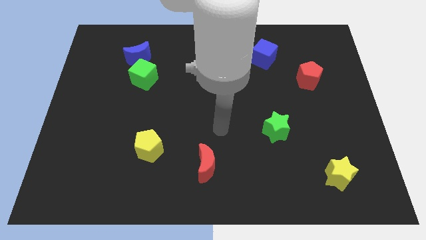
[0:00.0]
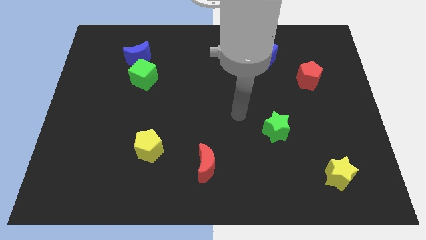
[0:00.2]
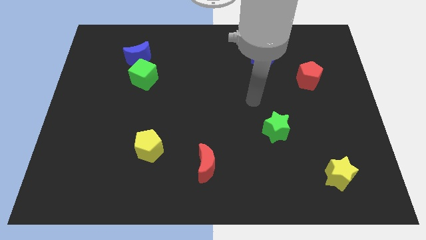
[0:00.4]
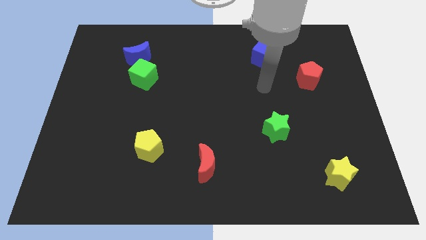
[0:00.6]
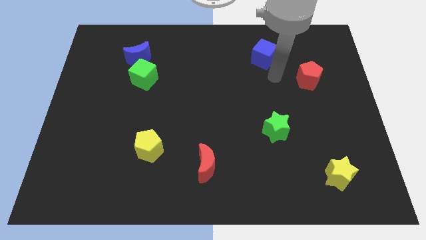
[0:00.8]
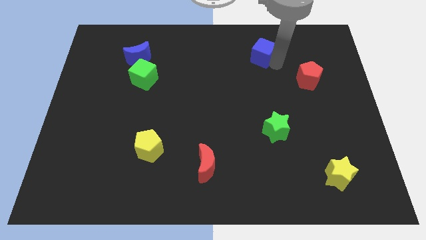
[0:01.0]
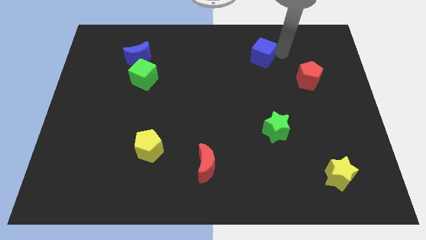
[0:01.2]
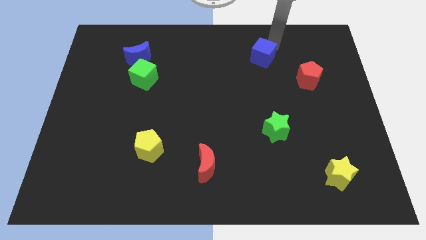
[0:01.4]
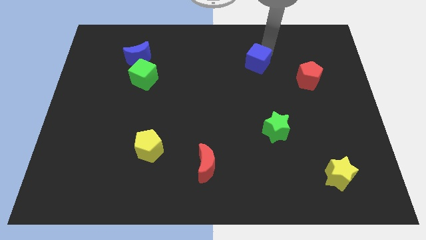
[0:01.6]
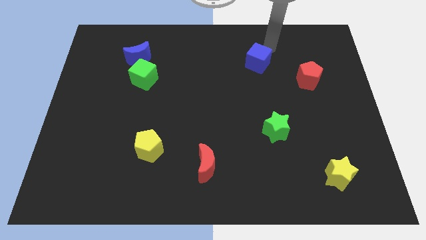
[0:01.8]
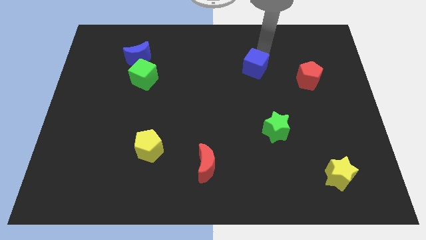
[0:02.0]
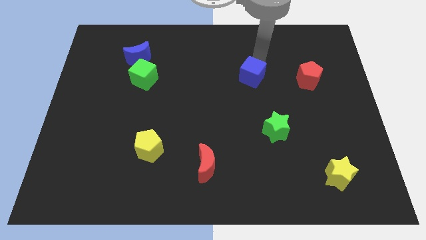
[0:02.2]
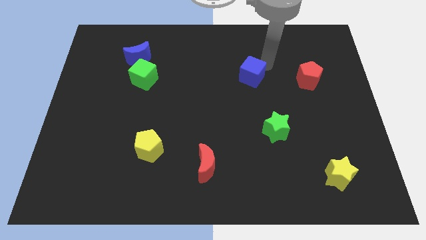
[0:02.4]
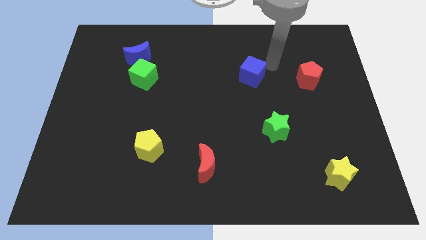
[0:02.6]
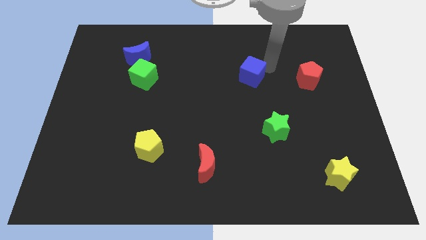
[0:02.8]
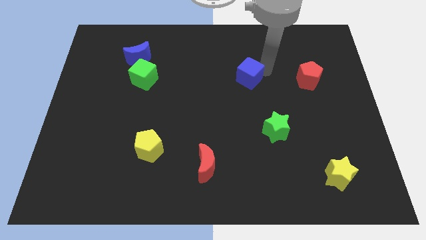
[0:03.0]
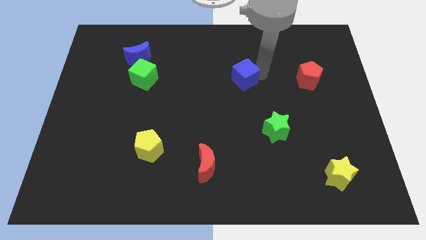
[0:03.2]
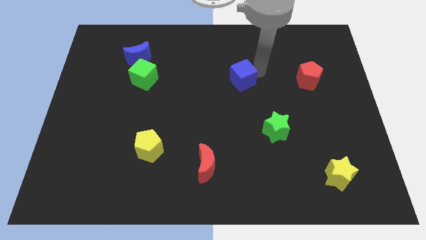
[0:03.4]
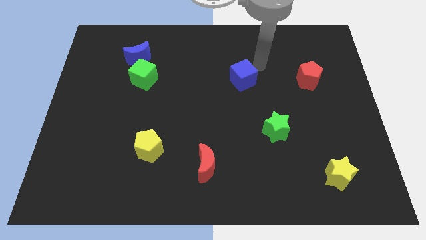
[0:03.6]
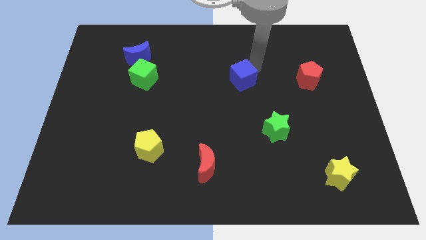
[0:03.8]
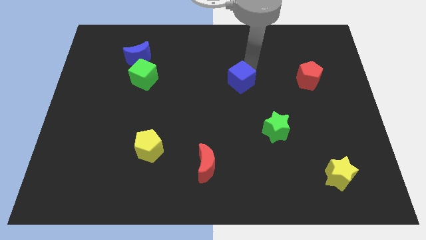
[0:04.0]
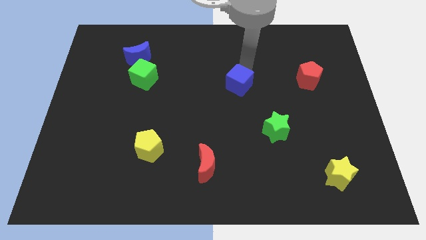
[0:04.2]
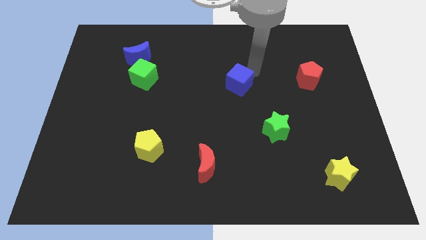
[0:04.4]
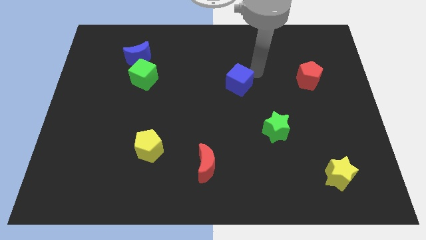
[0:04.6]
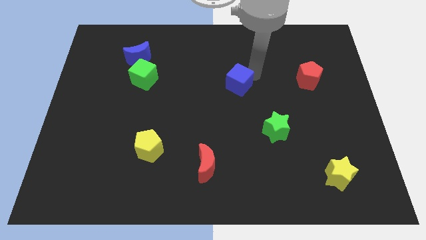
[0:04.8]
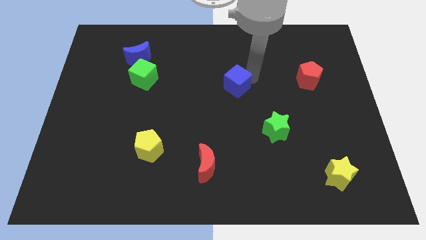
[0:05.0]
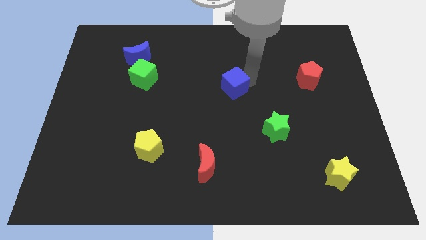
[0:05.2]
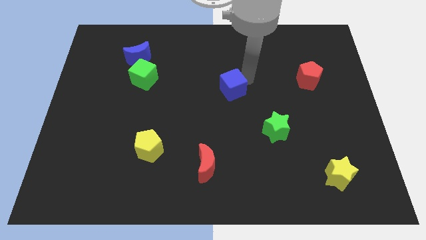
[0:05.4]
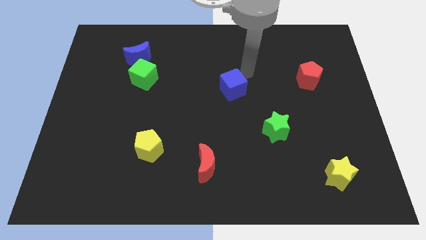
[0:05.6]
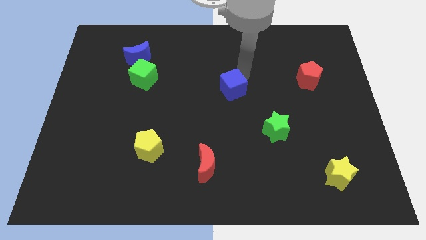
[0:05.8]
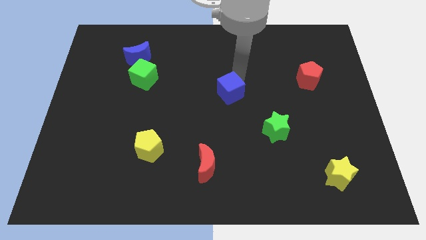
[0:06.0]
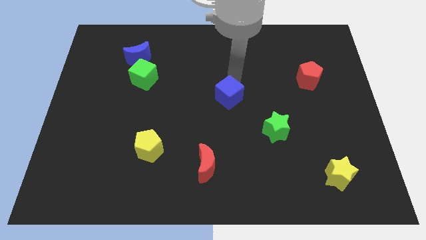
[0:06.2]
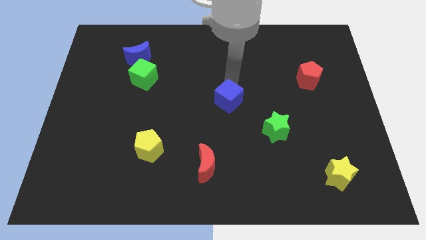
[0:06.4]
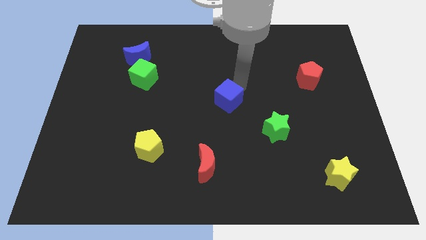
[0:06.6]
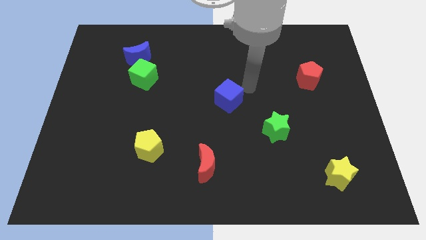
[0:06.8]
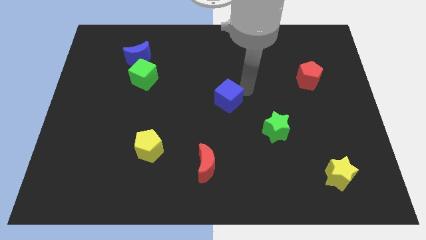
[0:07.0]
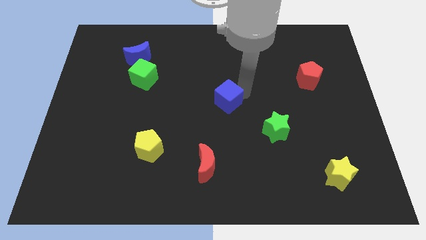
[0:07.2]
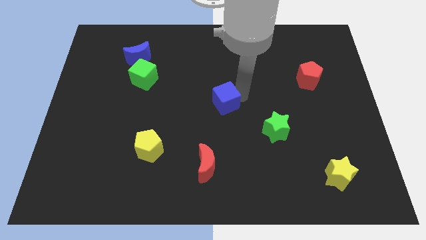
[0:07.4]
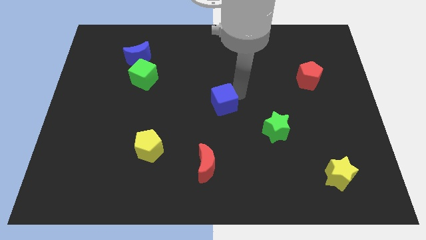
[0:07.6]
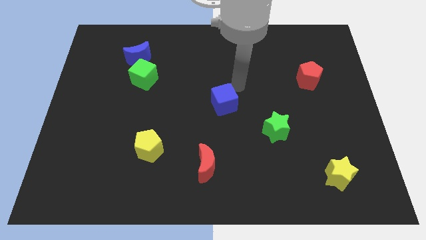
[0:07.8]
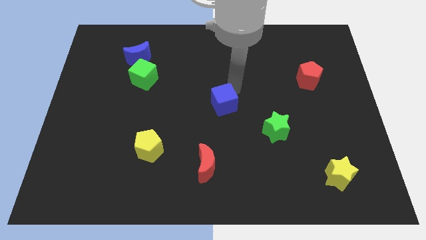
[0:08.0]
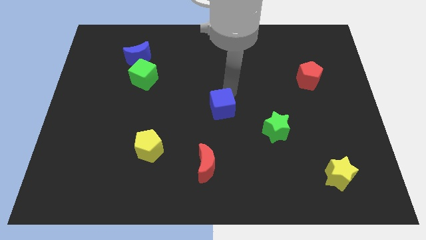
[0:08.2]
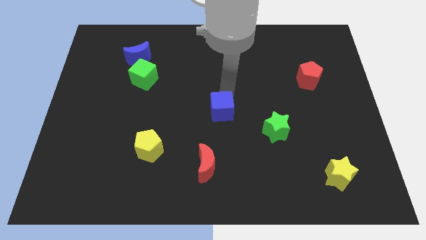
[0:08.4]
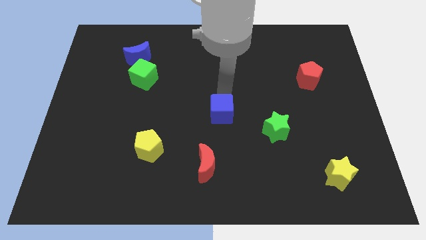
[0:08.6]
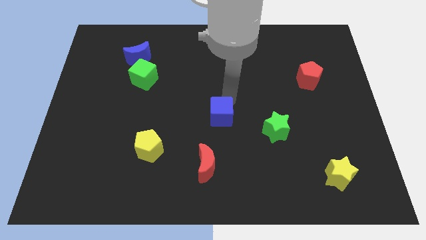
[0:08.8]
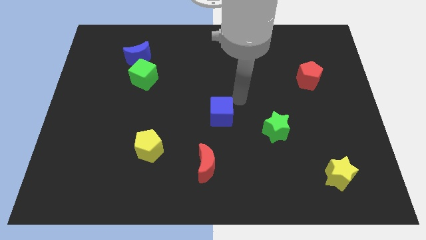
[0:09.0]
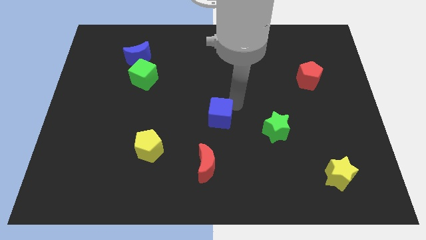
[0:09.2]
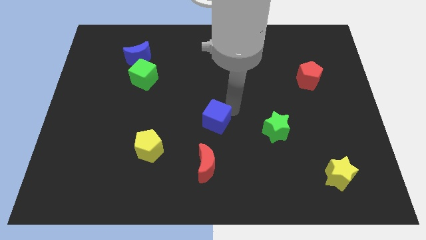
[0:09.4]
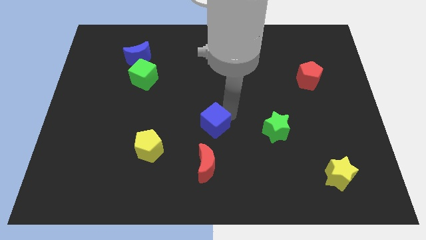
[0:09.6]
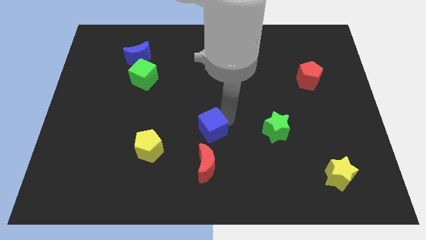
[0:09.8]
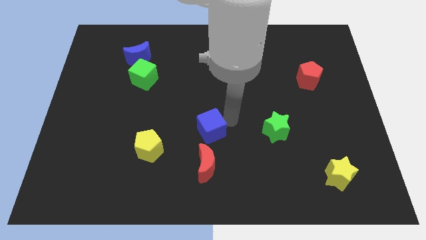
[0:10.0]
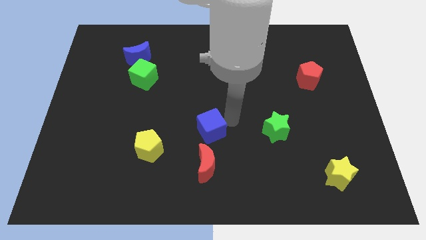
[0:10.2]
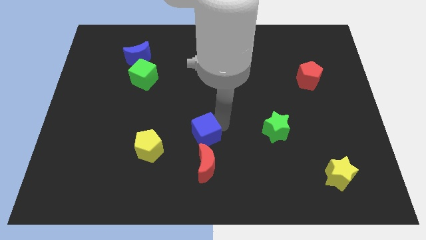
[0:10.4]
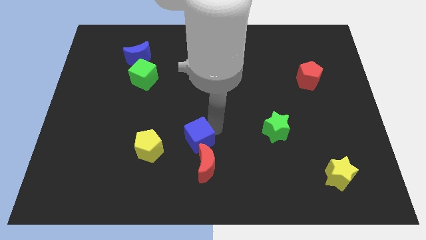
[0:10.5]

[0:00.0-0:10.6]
push the blue cube diagonally up and to the left of the red moon

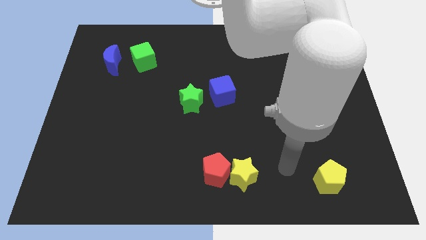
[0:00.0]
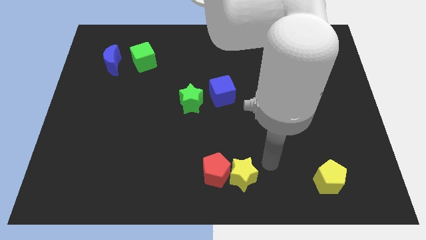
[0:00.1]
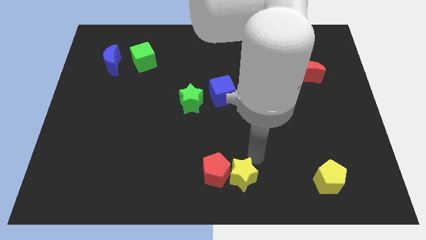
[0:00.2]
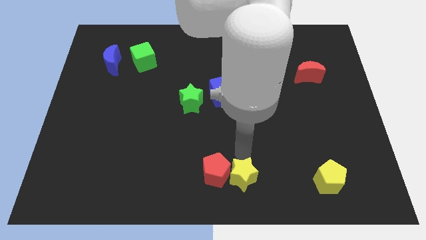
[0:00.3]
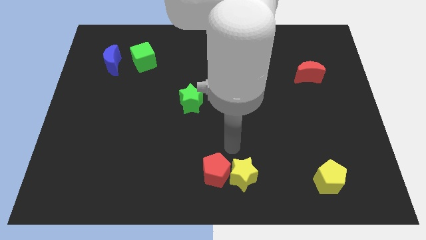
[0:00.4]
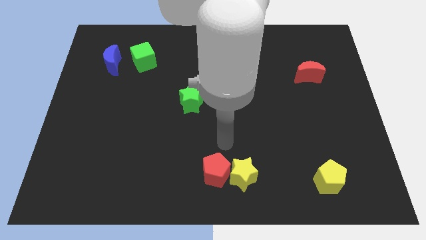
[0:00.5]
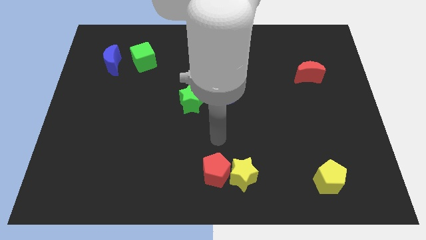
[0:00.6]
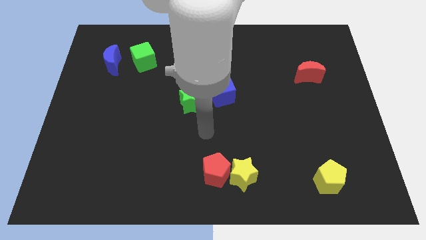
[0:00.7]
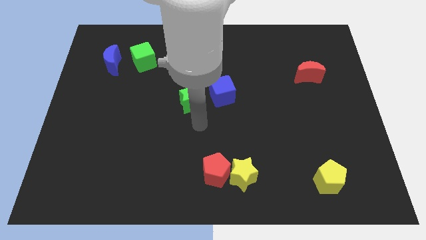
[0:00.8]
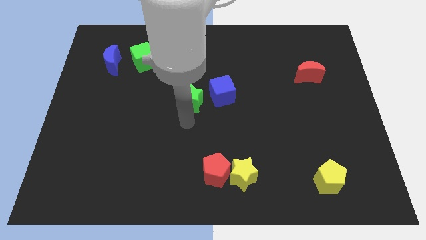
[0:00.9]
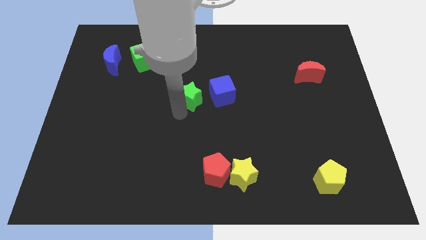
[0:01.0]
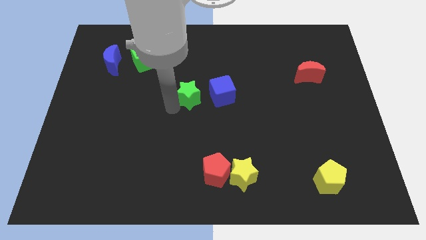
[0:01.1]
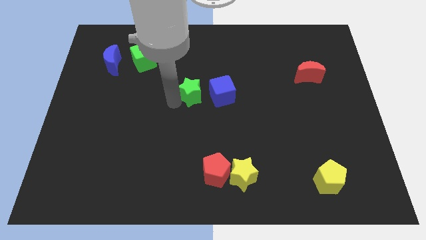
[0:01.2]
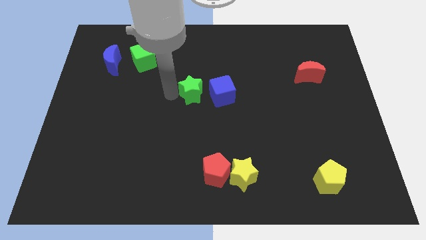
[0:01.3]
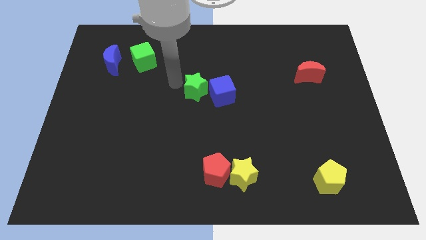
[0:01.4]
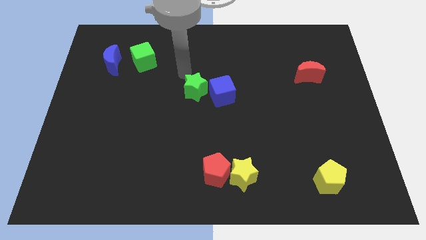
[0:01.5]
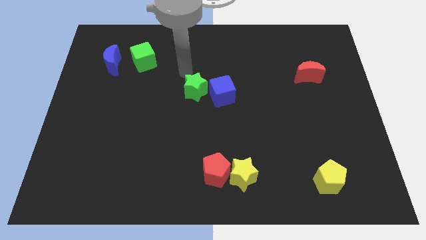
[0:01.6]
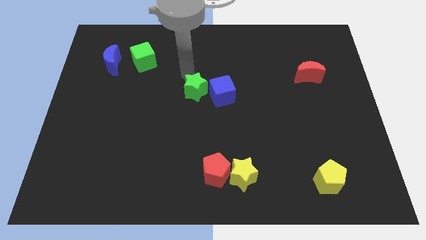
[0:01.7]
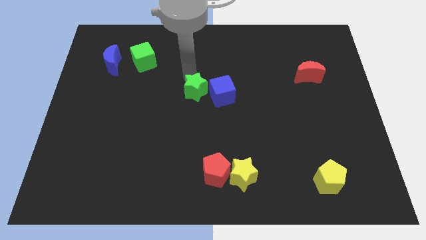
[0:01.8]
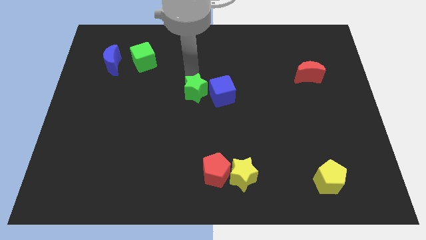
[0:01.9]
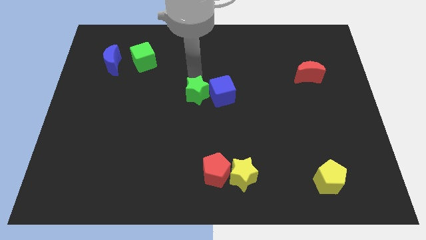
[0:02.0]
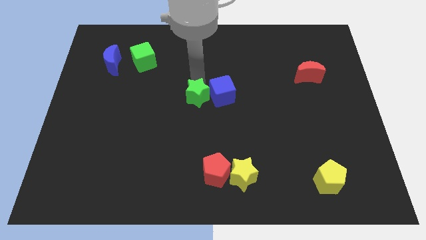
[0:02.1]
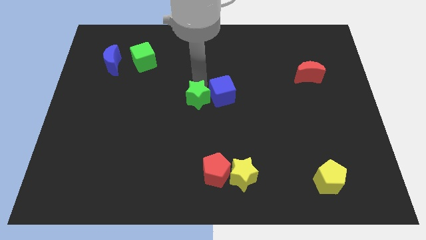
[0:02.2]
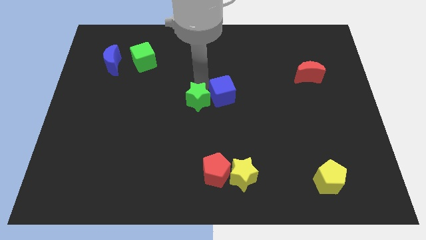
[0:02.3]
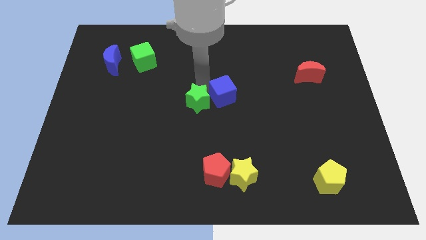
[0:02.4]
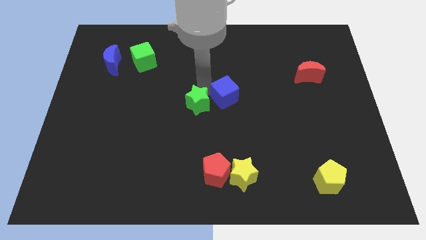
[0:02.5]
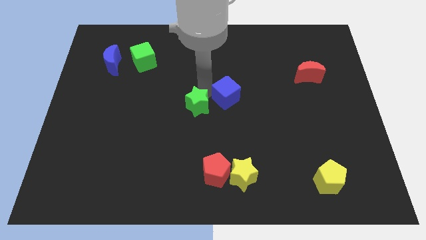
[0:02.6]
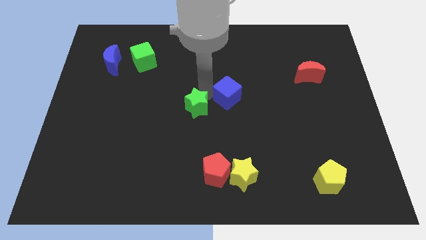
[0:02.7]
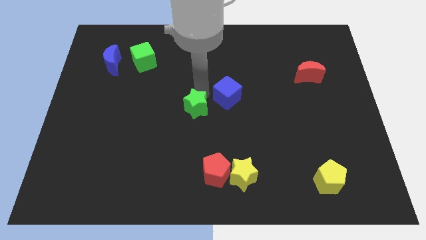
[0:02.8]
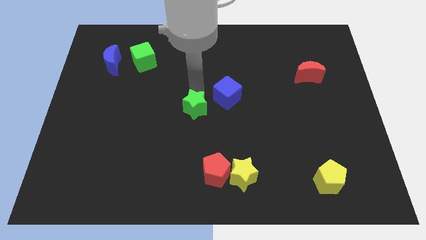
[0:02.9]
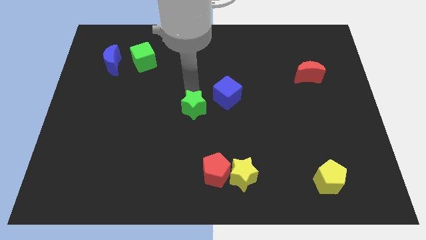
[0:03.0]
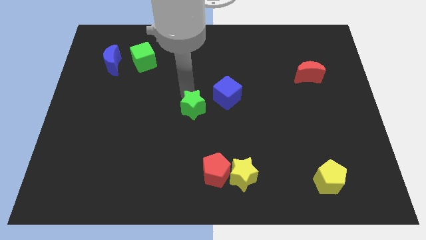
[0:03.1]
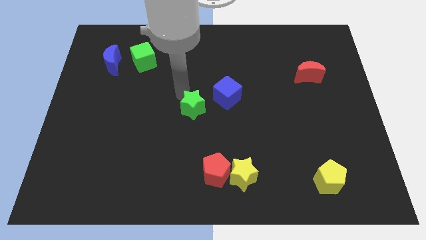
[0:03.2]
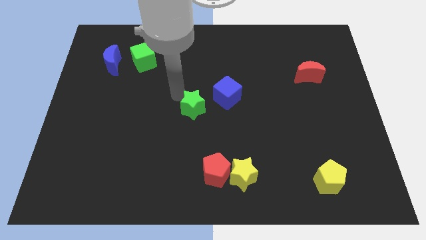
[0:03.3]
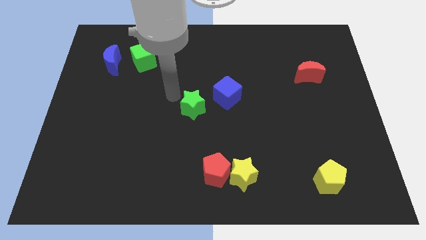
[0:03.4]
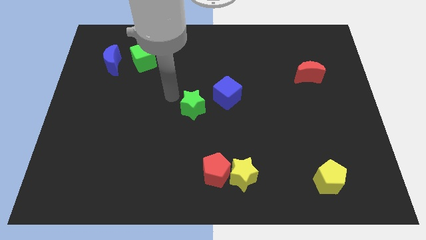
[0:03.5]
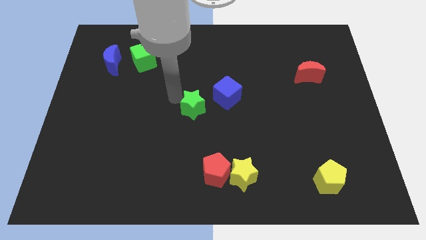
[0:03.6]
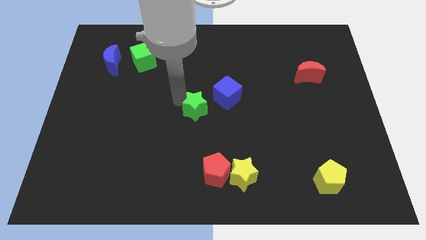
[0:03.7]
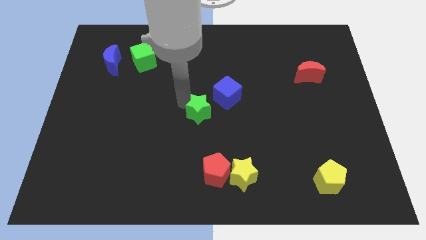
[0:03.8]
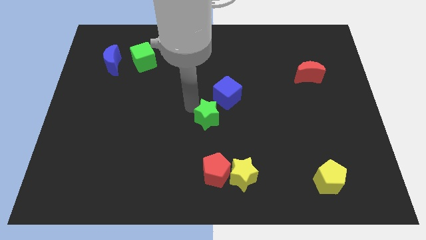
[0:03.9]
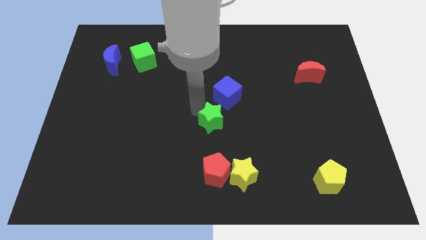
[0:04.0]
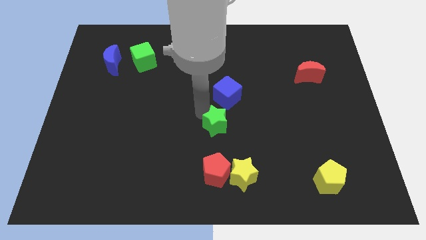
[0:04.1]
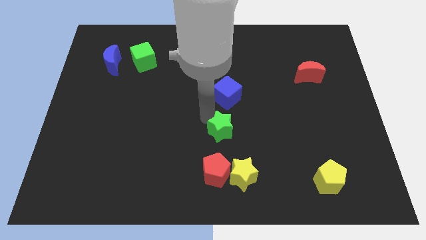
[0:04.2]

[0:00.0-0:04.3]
put the green star to the top side of the yellow star
